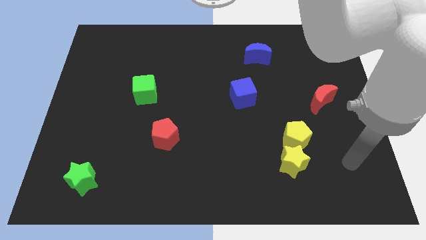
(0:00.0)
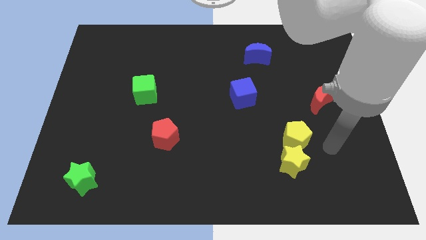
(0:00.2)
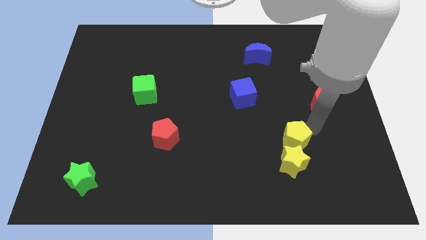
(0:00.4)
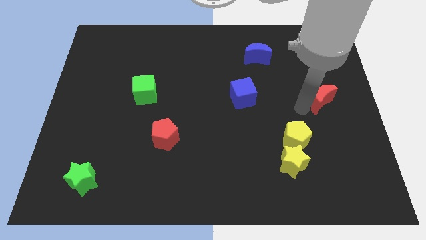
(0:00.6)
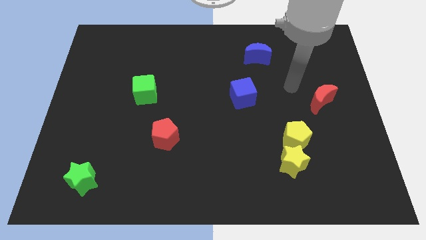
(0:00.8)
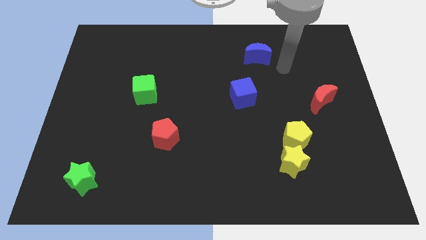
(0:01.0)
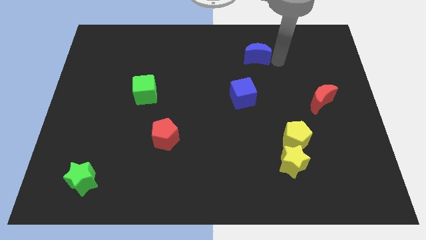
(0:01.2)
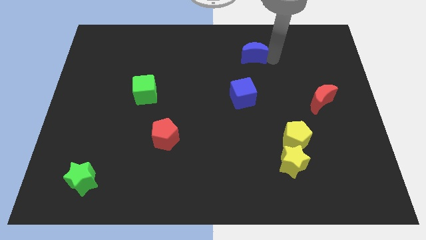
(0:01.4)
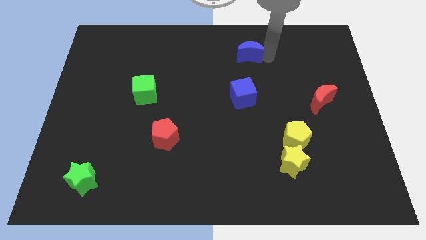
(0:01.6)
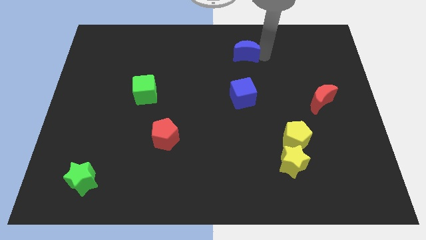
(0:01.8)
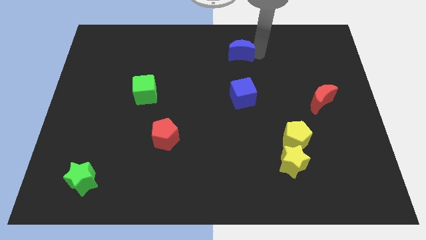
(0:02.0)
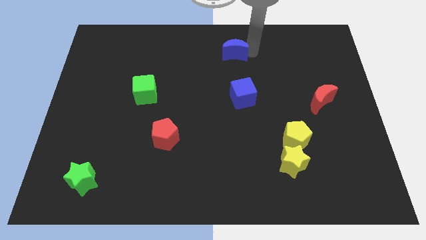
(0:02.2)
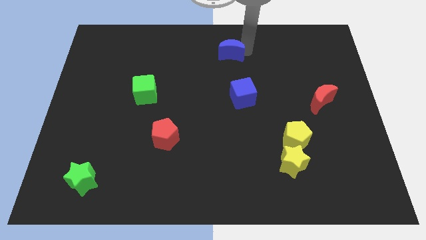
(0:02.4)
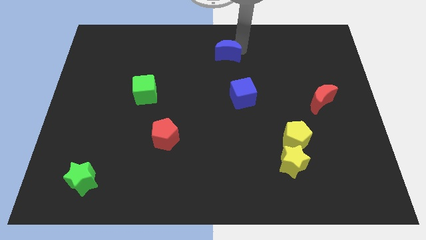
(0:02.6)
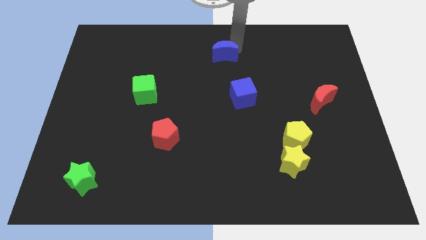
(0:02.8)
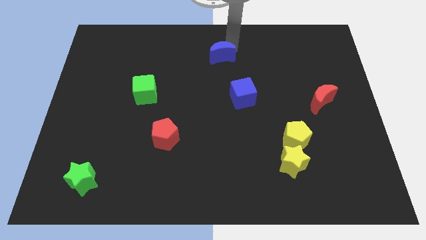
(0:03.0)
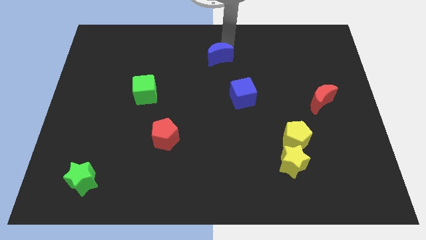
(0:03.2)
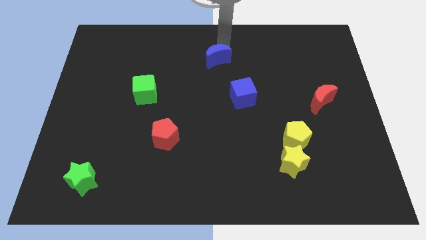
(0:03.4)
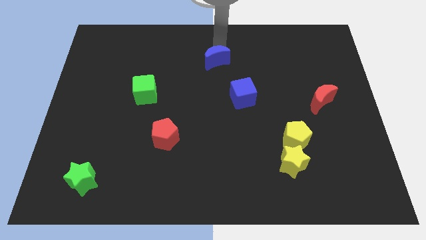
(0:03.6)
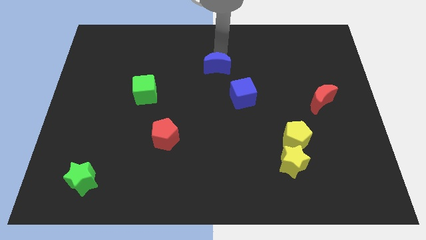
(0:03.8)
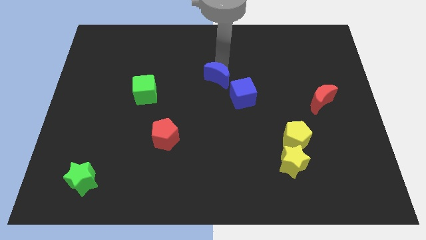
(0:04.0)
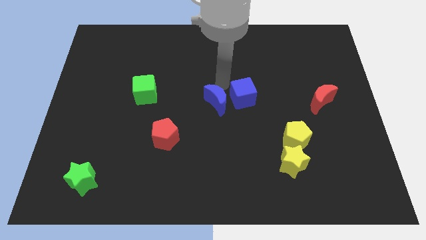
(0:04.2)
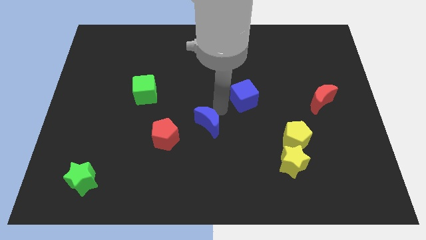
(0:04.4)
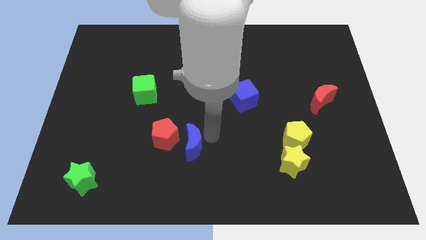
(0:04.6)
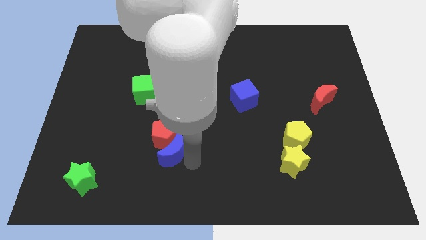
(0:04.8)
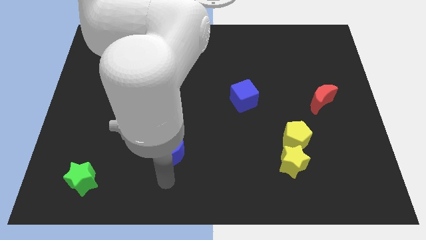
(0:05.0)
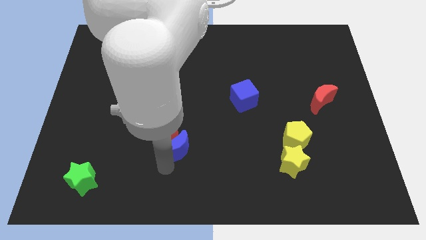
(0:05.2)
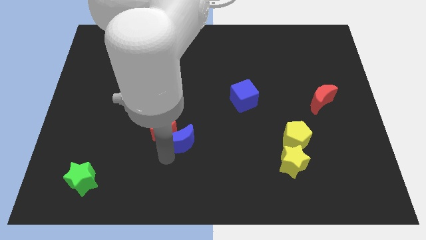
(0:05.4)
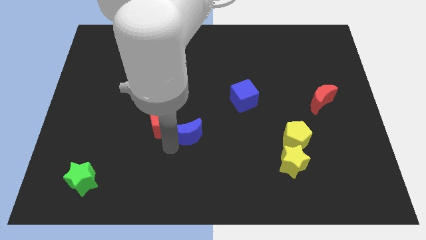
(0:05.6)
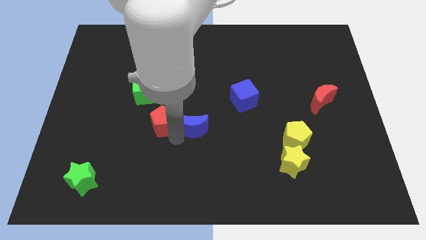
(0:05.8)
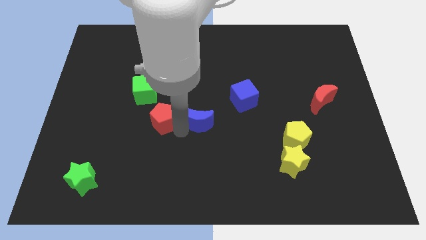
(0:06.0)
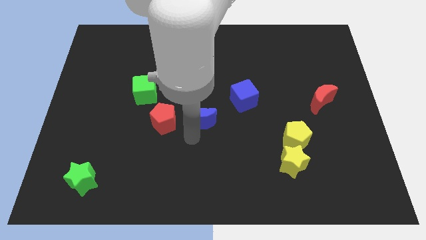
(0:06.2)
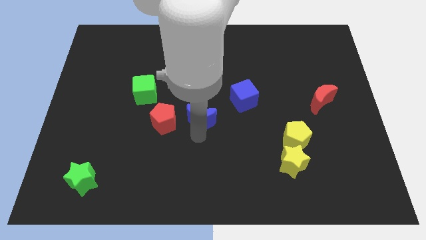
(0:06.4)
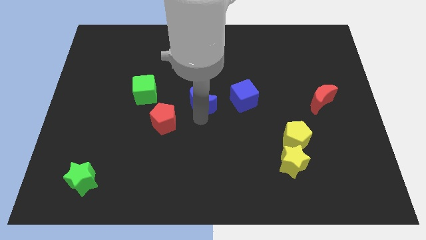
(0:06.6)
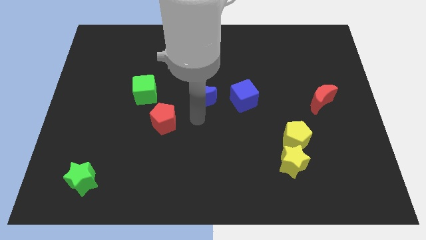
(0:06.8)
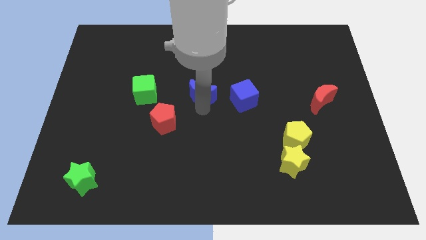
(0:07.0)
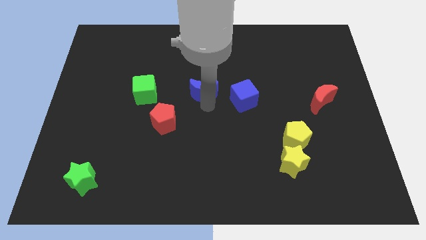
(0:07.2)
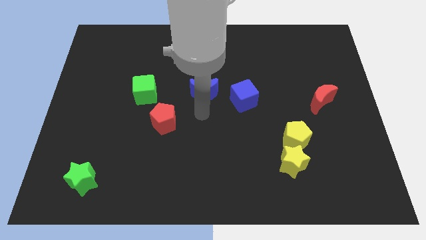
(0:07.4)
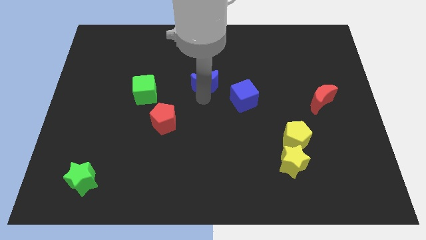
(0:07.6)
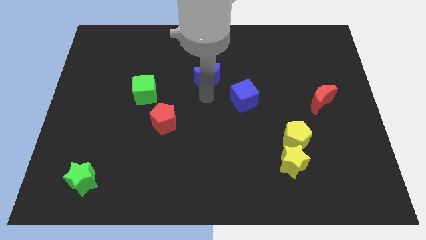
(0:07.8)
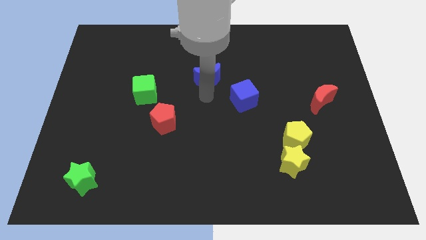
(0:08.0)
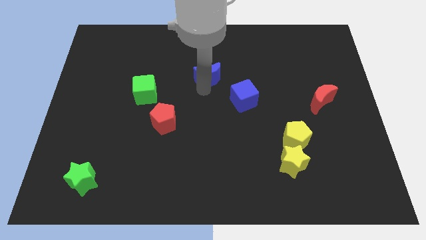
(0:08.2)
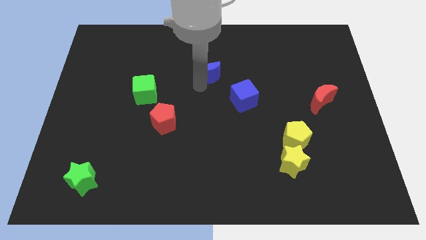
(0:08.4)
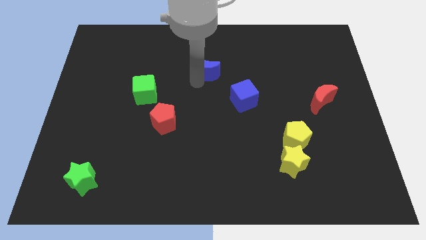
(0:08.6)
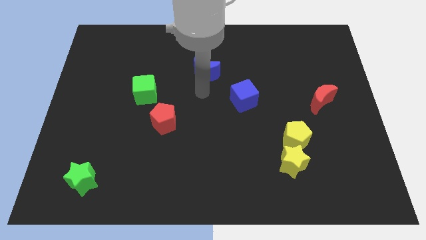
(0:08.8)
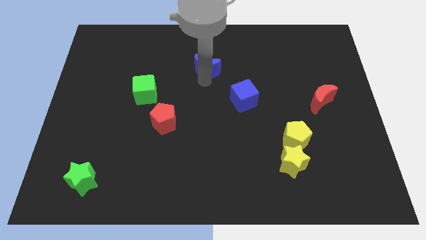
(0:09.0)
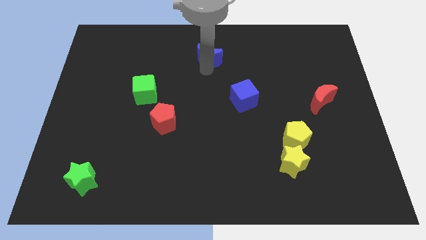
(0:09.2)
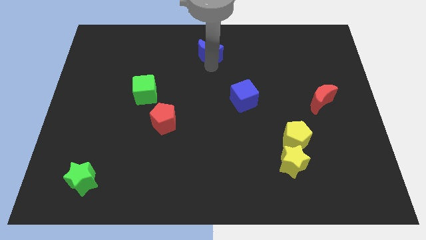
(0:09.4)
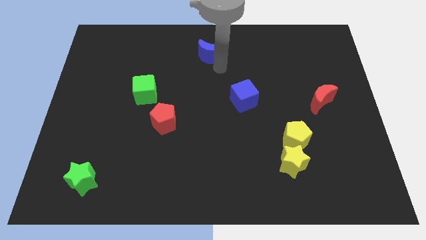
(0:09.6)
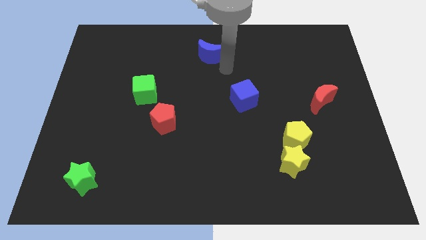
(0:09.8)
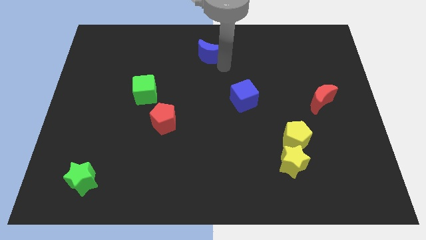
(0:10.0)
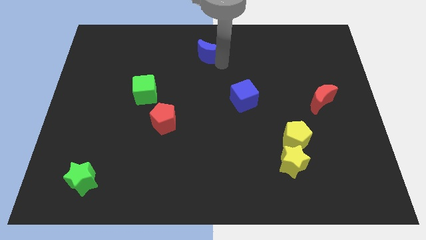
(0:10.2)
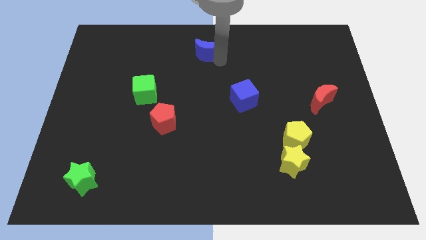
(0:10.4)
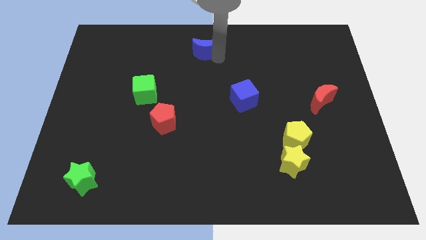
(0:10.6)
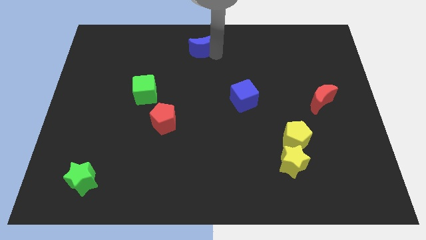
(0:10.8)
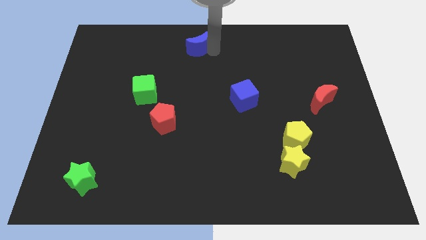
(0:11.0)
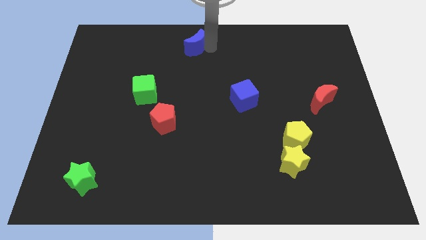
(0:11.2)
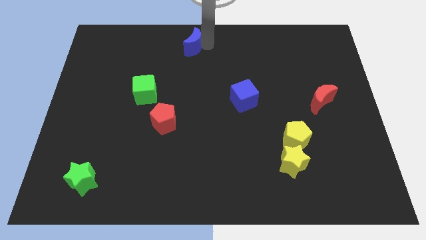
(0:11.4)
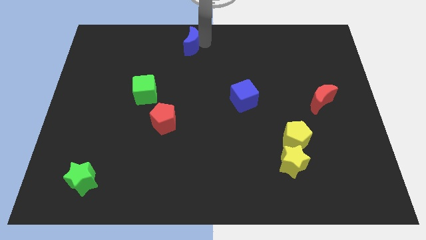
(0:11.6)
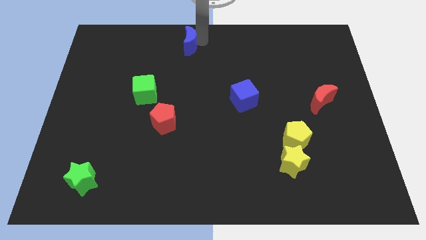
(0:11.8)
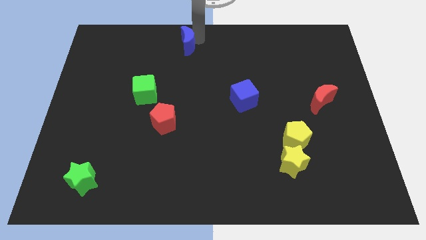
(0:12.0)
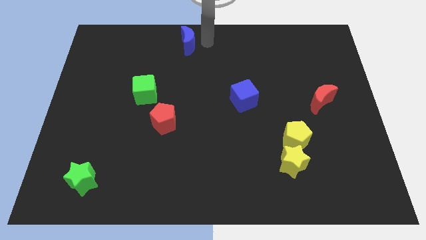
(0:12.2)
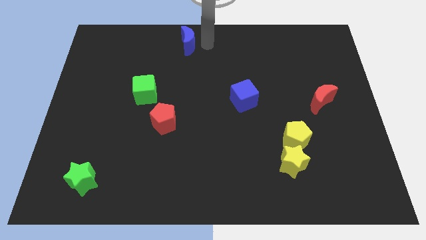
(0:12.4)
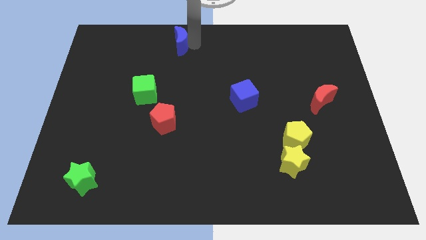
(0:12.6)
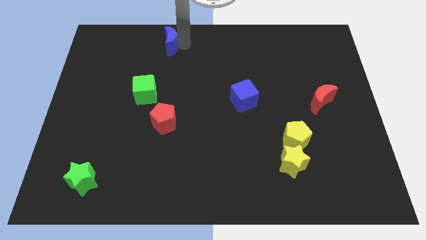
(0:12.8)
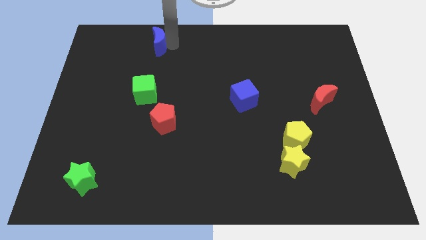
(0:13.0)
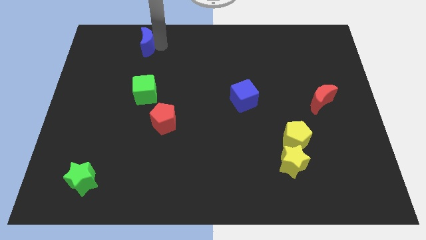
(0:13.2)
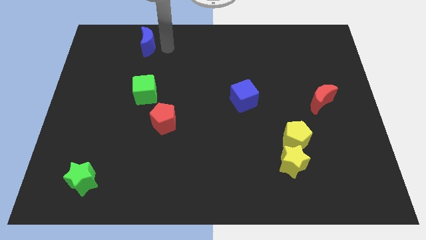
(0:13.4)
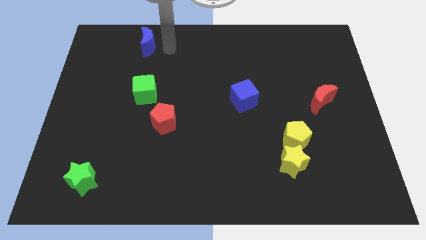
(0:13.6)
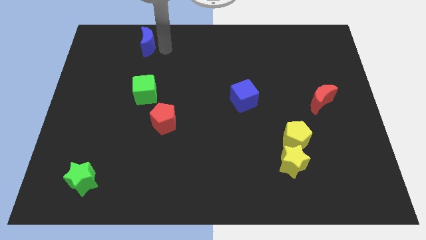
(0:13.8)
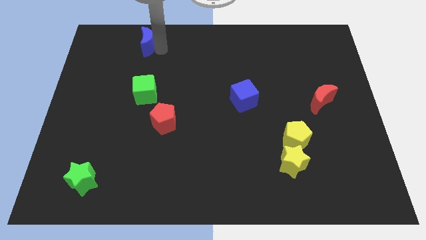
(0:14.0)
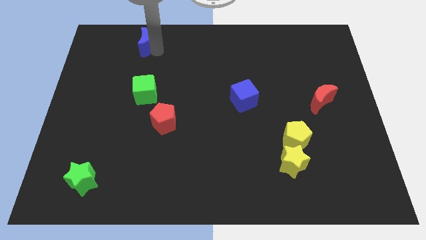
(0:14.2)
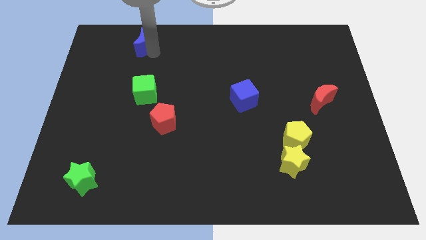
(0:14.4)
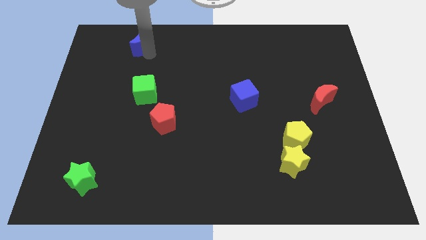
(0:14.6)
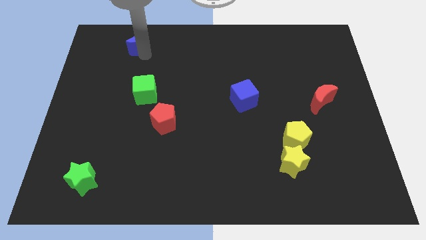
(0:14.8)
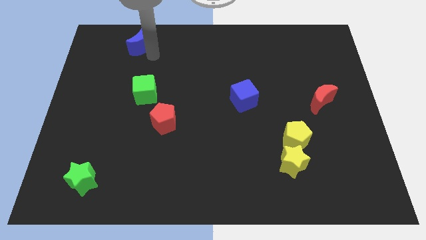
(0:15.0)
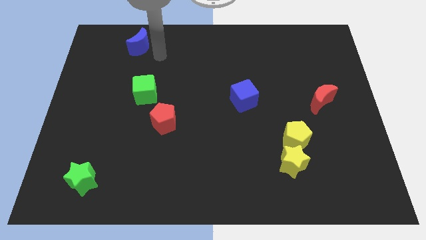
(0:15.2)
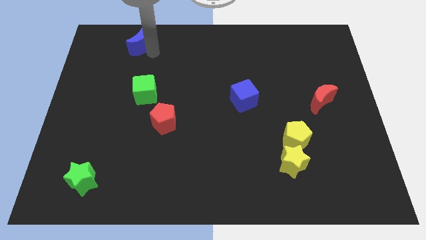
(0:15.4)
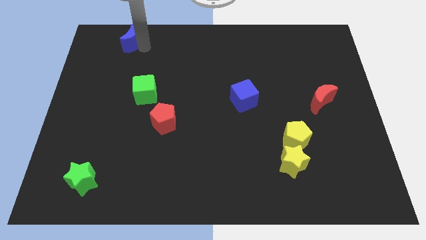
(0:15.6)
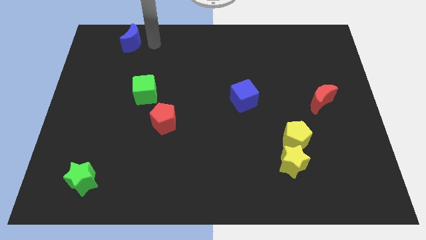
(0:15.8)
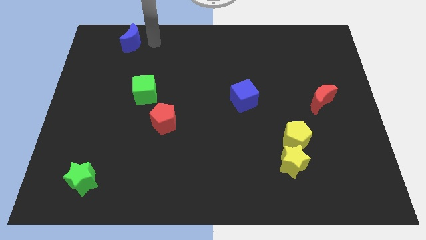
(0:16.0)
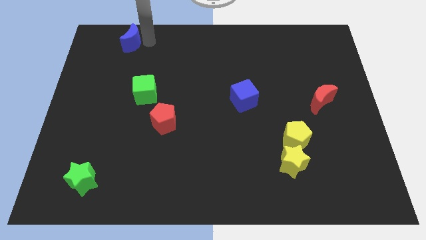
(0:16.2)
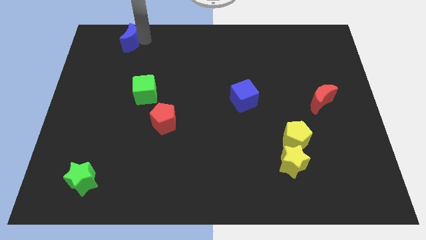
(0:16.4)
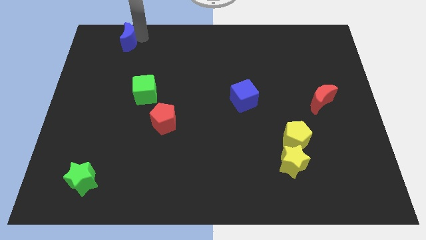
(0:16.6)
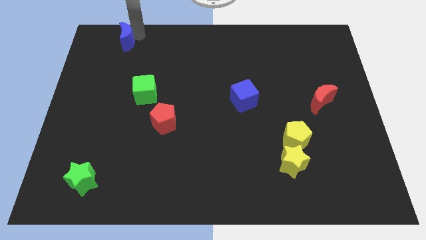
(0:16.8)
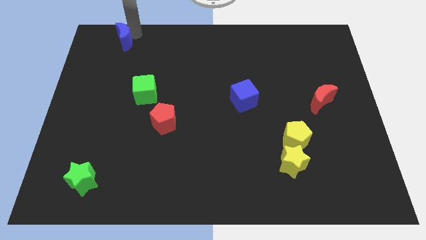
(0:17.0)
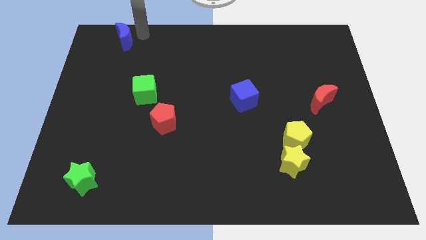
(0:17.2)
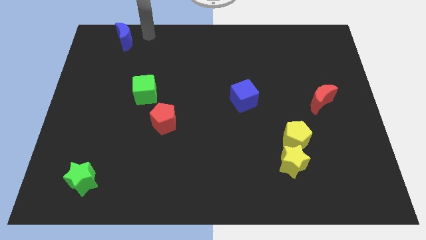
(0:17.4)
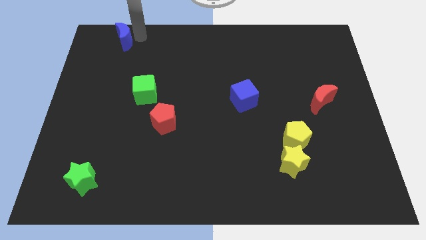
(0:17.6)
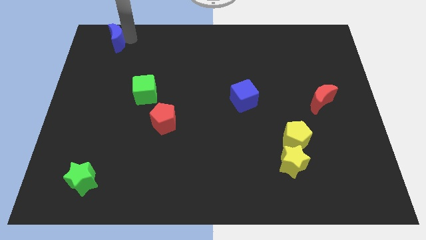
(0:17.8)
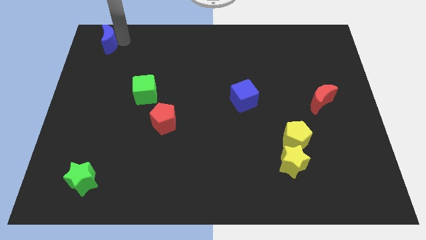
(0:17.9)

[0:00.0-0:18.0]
move the blue moon to the top left
